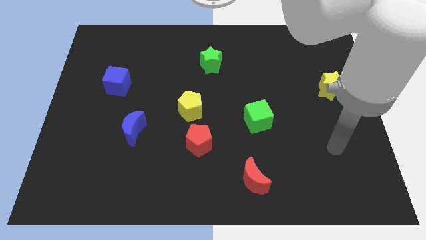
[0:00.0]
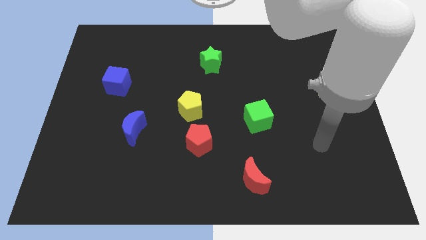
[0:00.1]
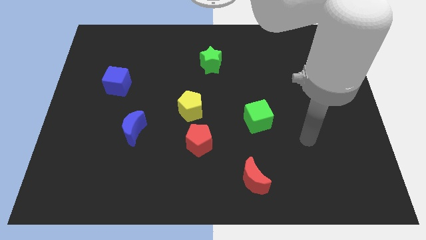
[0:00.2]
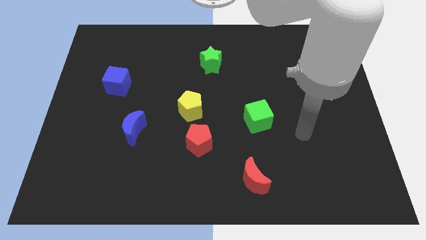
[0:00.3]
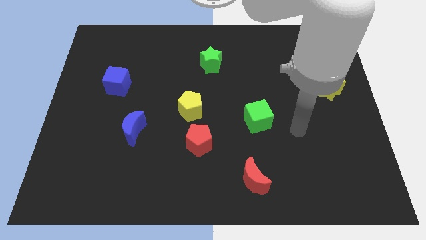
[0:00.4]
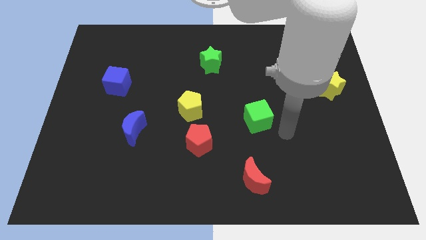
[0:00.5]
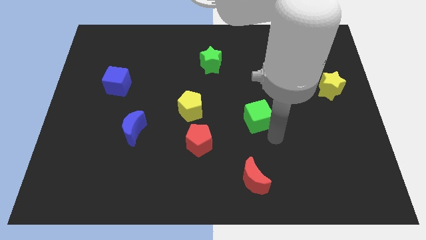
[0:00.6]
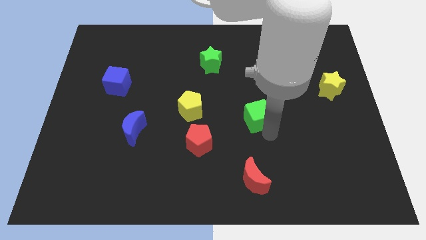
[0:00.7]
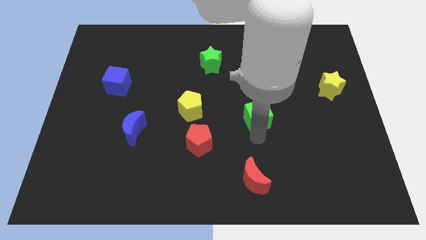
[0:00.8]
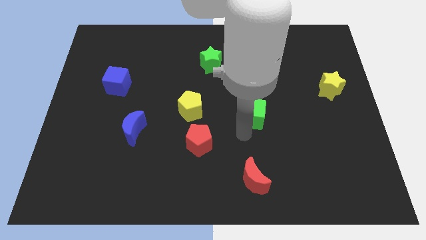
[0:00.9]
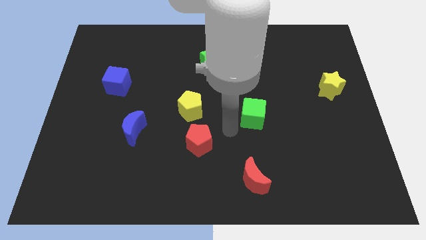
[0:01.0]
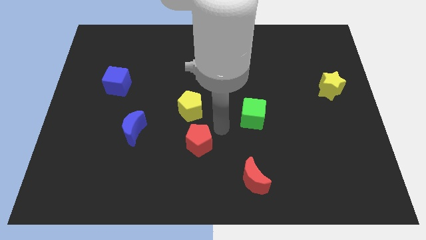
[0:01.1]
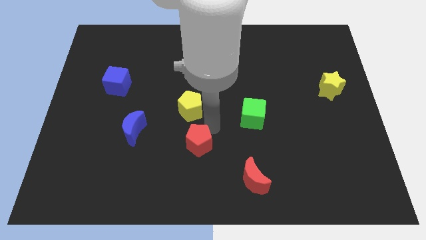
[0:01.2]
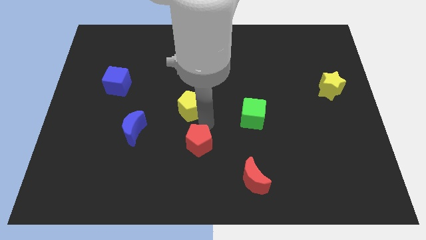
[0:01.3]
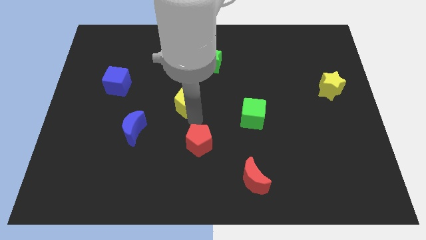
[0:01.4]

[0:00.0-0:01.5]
move the red pentagon away from the yellow pentagon

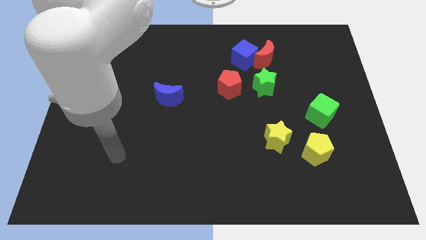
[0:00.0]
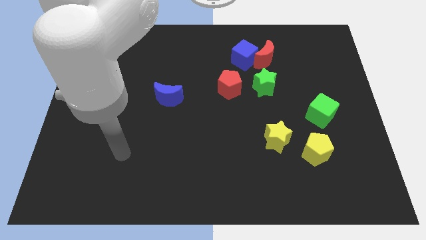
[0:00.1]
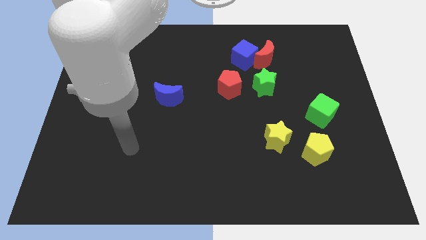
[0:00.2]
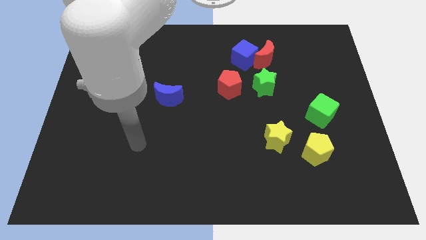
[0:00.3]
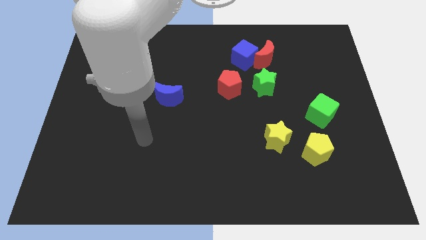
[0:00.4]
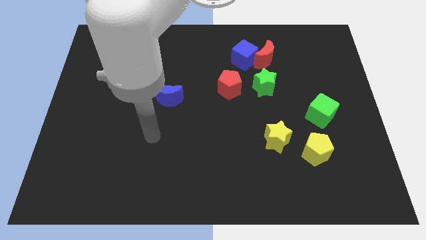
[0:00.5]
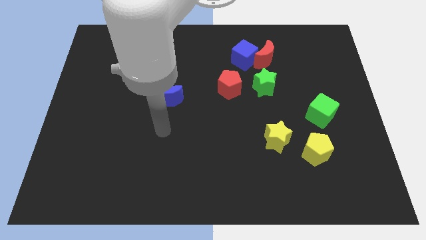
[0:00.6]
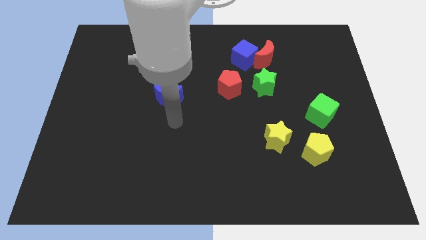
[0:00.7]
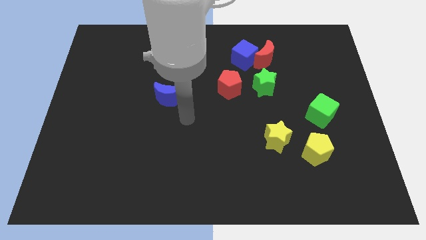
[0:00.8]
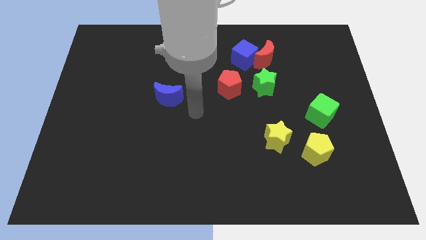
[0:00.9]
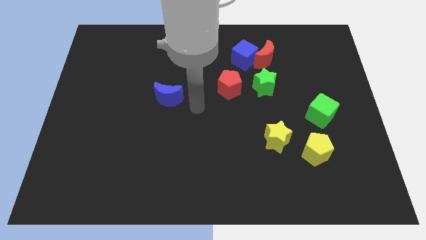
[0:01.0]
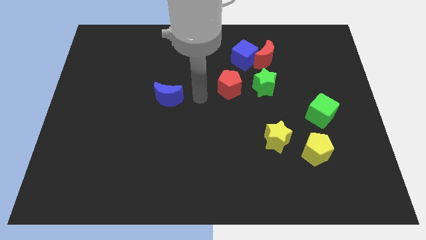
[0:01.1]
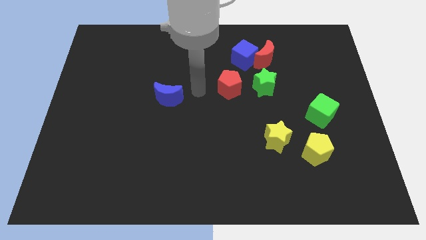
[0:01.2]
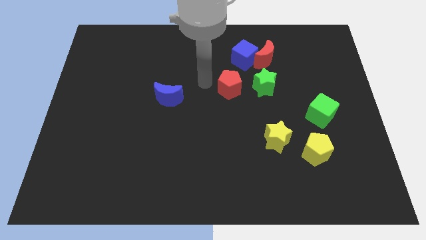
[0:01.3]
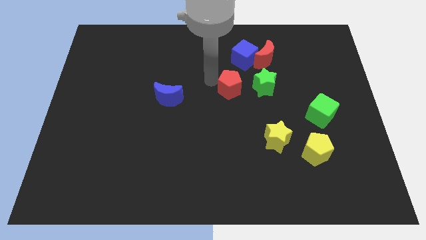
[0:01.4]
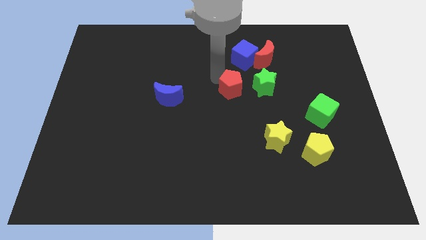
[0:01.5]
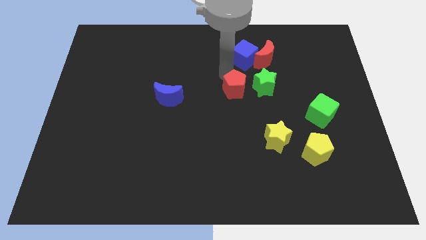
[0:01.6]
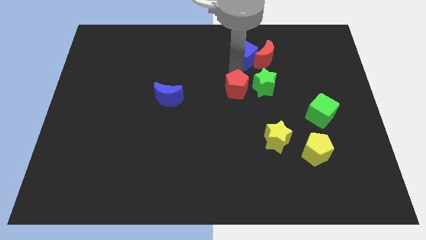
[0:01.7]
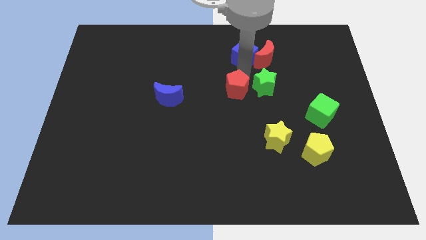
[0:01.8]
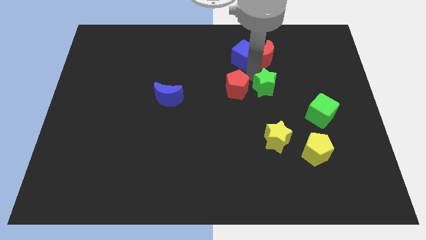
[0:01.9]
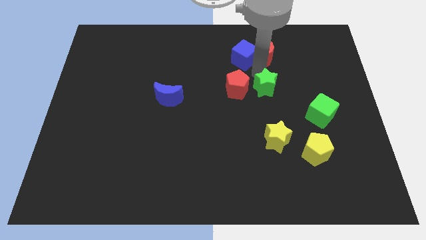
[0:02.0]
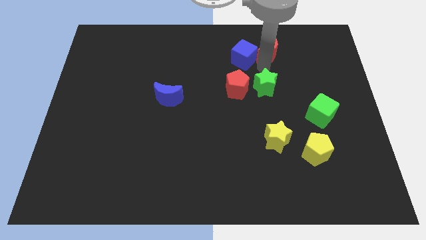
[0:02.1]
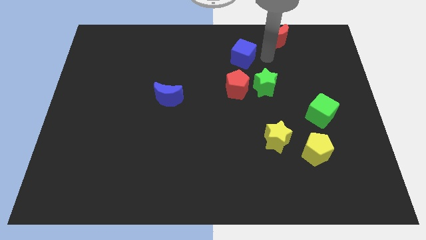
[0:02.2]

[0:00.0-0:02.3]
pull the blue cube apart from the red moon

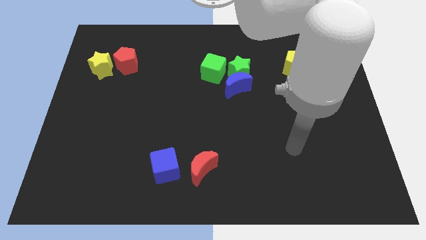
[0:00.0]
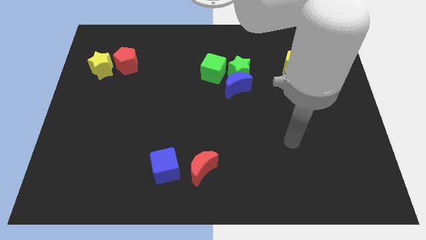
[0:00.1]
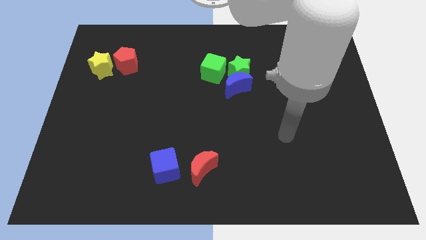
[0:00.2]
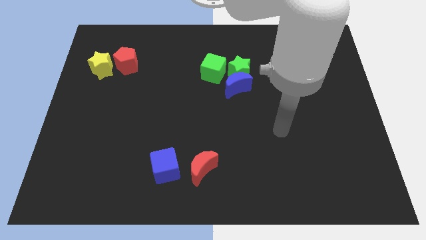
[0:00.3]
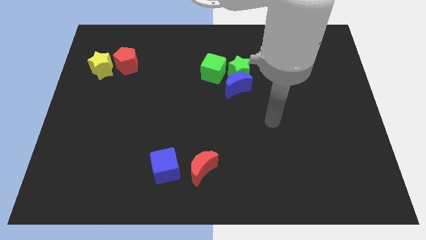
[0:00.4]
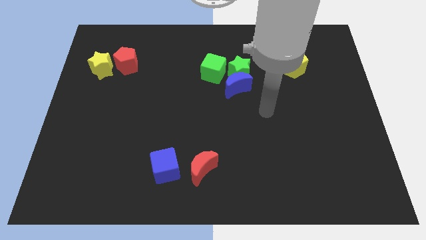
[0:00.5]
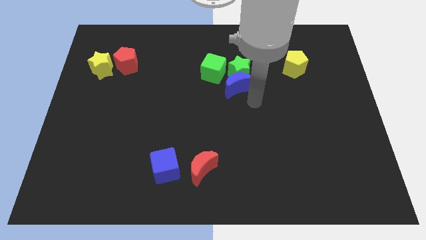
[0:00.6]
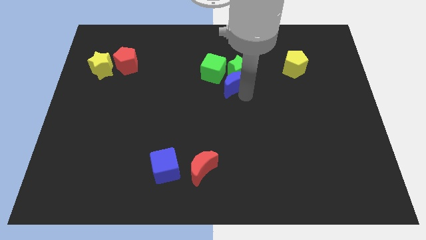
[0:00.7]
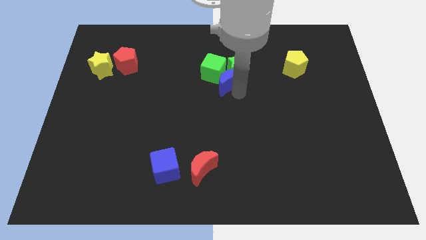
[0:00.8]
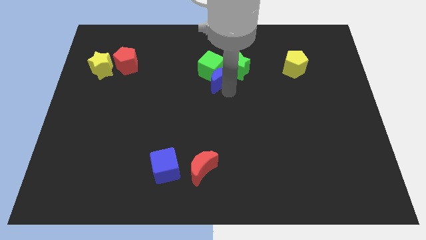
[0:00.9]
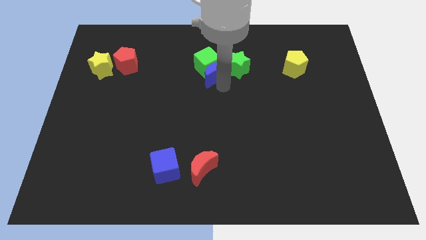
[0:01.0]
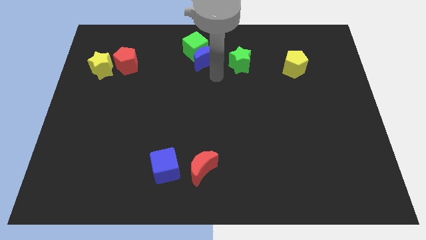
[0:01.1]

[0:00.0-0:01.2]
separate the green star from the blue moon and green cube

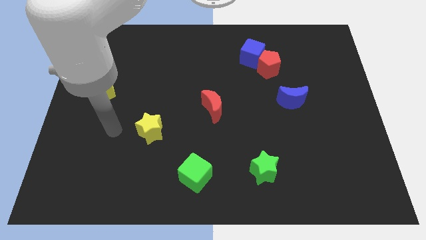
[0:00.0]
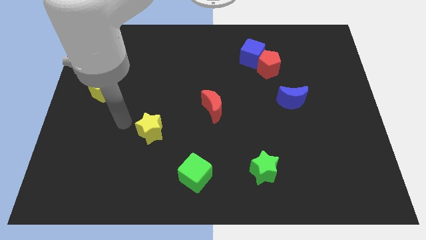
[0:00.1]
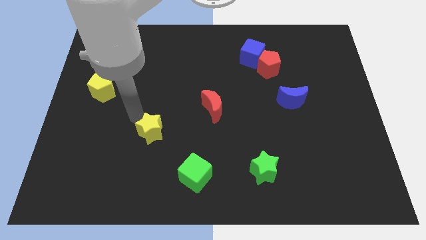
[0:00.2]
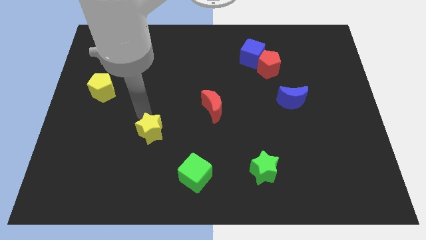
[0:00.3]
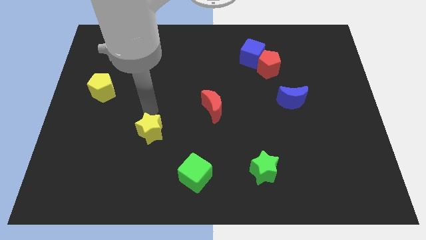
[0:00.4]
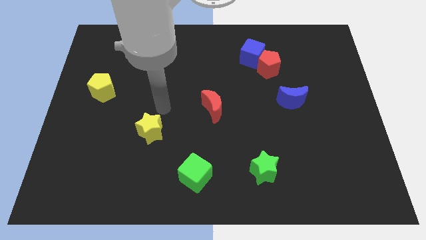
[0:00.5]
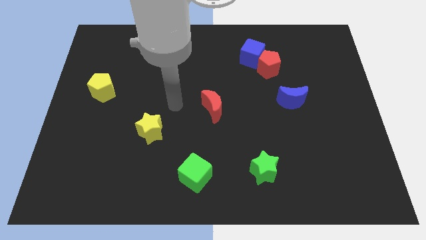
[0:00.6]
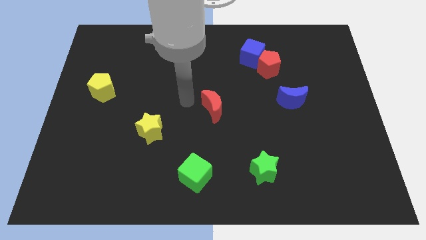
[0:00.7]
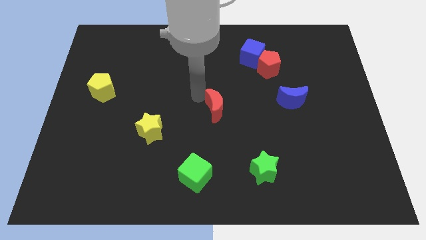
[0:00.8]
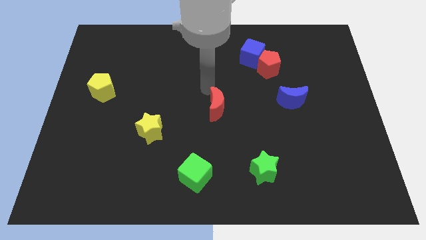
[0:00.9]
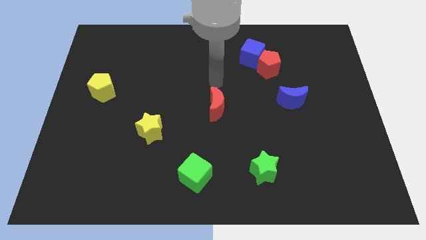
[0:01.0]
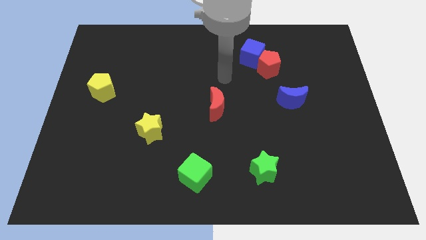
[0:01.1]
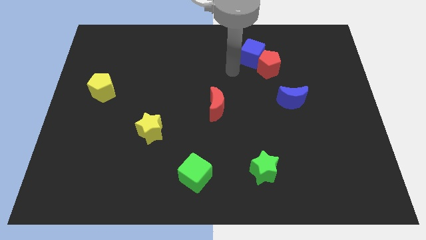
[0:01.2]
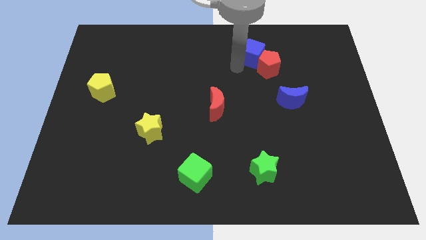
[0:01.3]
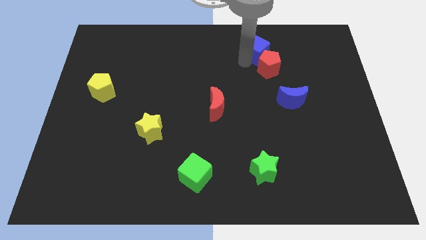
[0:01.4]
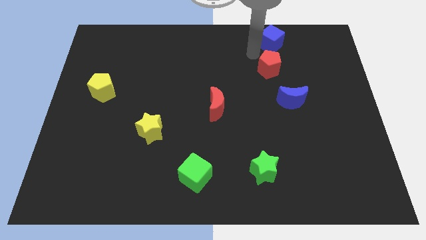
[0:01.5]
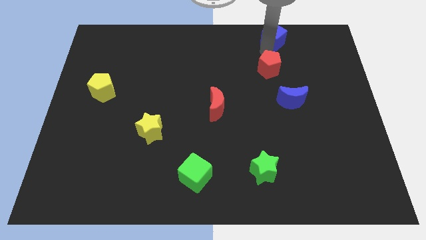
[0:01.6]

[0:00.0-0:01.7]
pull the red pentagon apart from the blue cube

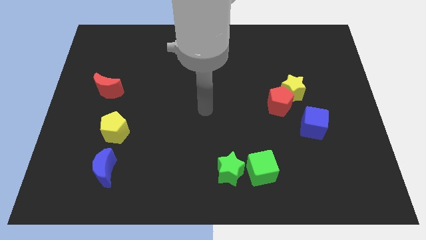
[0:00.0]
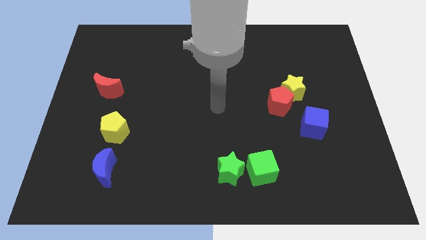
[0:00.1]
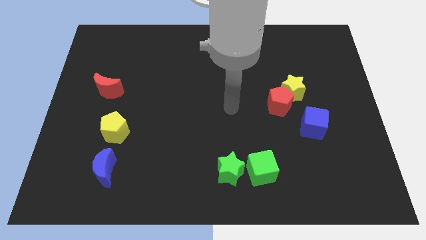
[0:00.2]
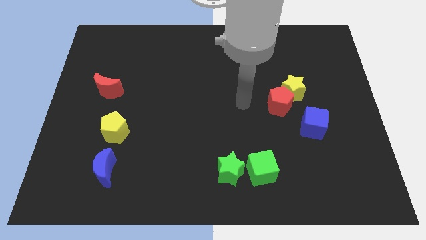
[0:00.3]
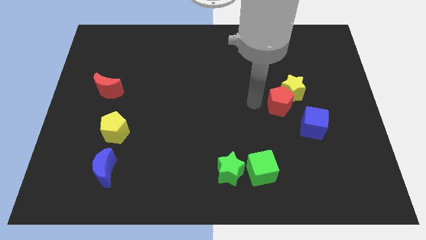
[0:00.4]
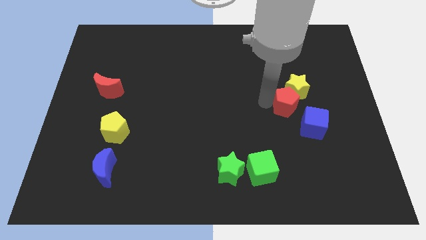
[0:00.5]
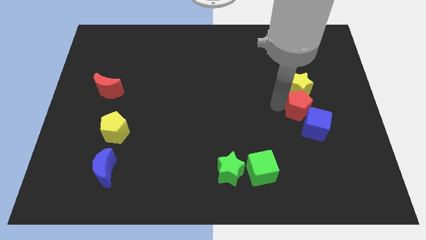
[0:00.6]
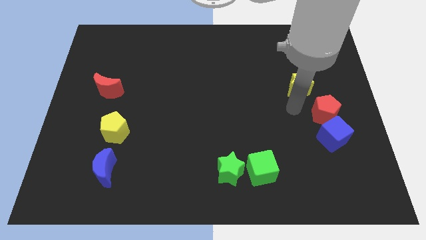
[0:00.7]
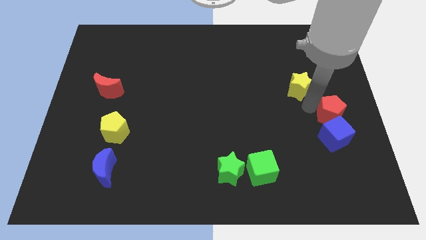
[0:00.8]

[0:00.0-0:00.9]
pull the yellow star apart from the red pentagon

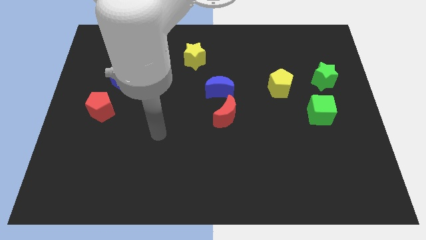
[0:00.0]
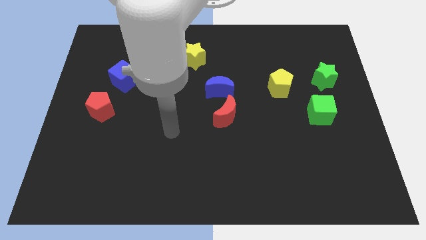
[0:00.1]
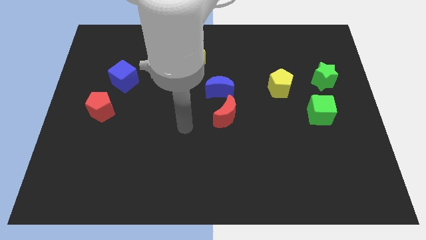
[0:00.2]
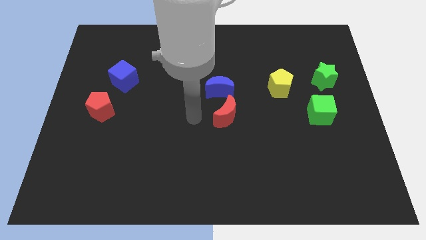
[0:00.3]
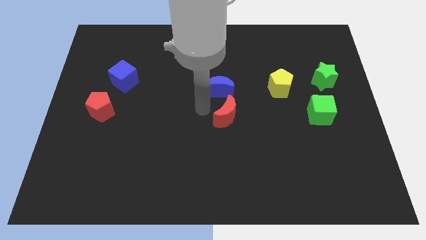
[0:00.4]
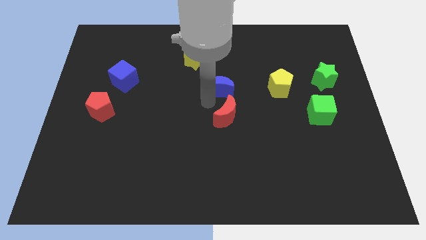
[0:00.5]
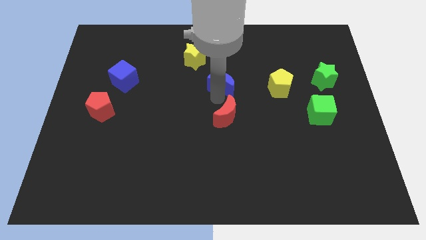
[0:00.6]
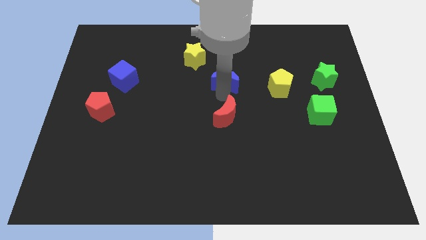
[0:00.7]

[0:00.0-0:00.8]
separate the red moon from the blue moon

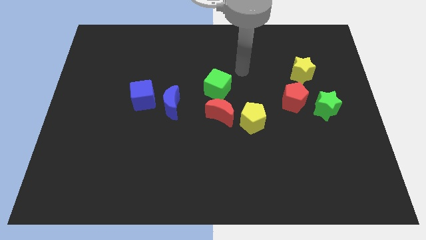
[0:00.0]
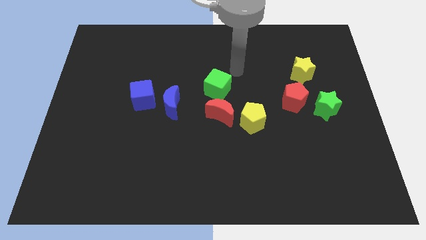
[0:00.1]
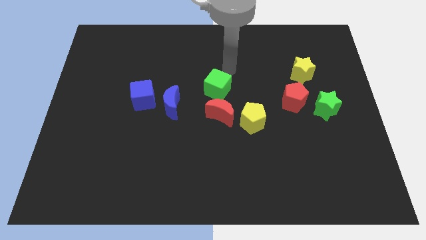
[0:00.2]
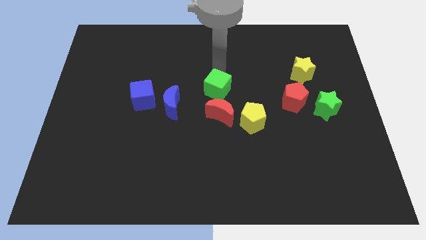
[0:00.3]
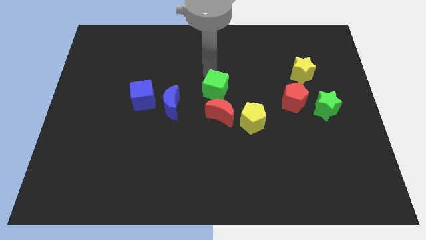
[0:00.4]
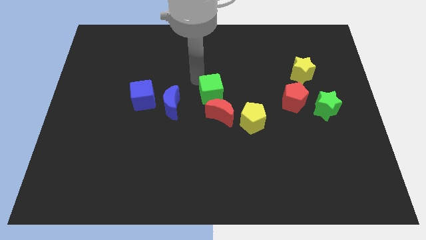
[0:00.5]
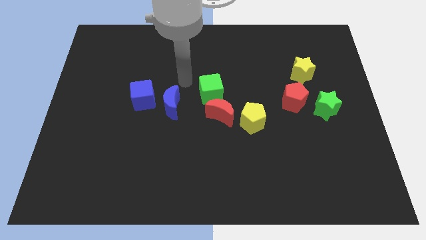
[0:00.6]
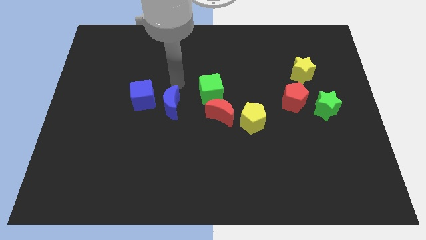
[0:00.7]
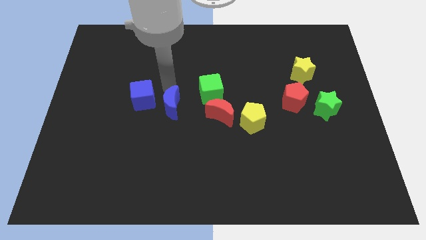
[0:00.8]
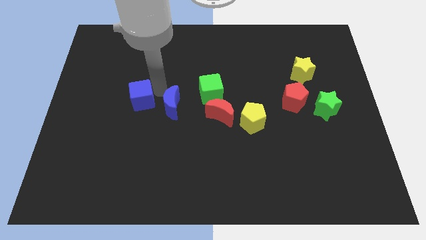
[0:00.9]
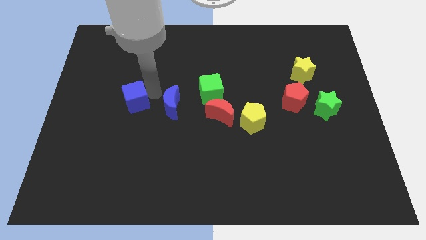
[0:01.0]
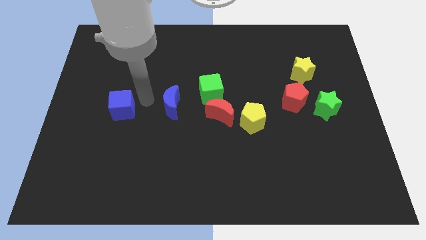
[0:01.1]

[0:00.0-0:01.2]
separate the blue moon from the blue cube
